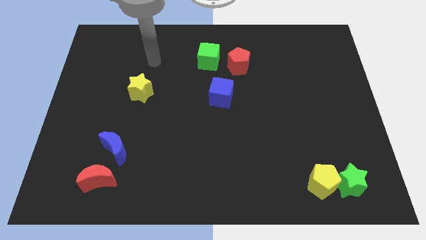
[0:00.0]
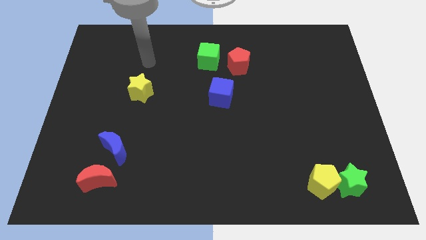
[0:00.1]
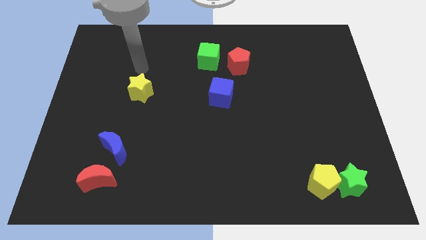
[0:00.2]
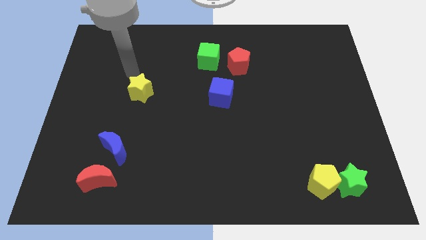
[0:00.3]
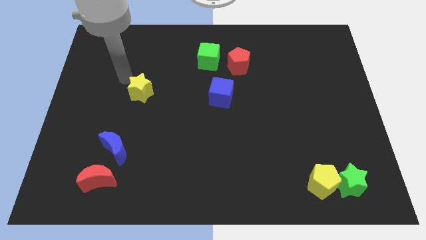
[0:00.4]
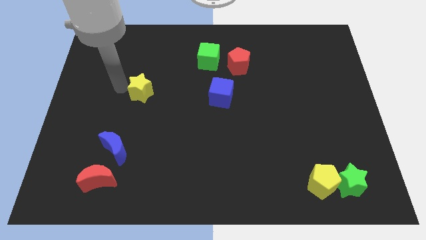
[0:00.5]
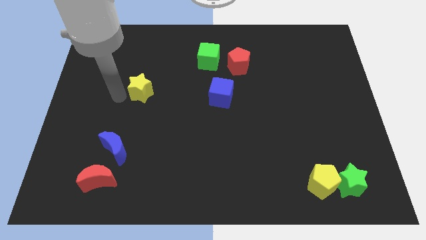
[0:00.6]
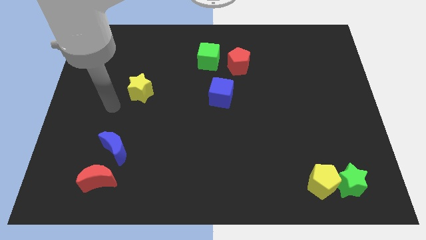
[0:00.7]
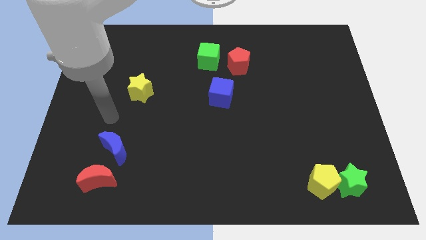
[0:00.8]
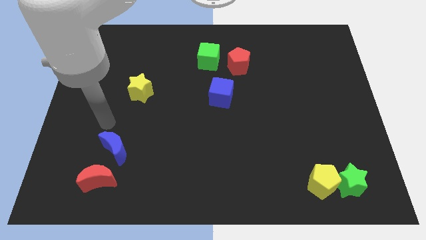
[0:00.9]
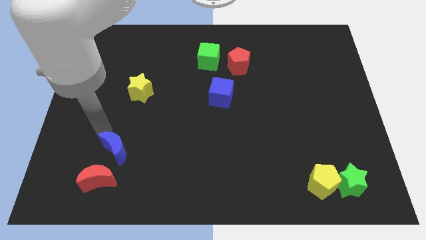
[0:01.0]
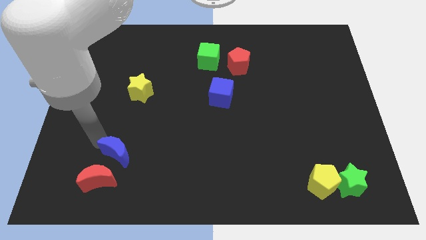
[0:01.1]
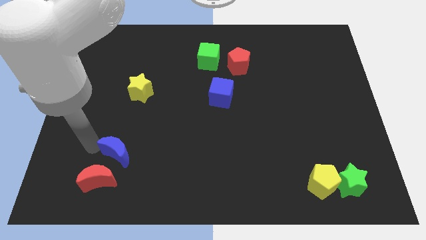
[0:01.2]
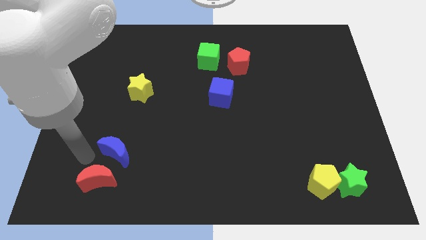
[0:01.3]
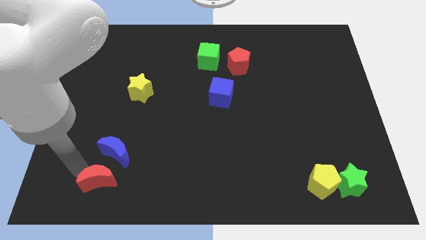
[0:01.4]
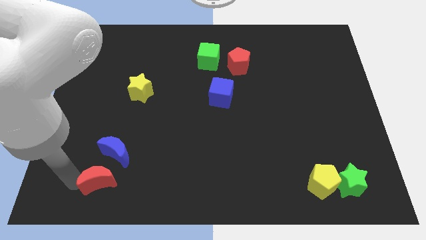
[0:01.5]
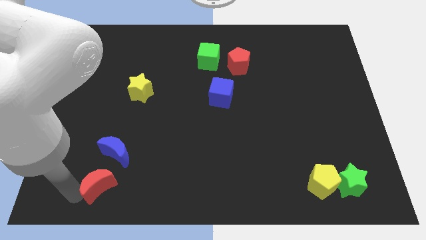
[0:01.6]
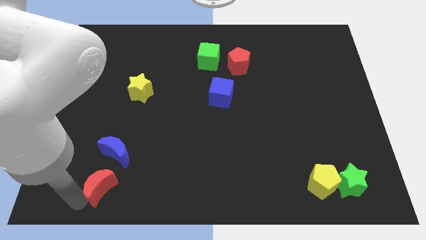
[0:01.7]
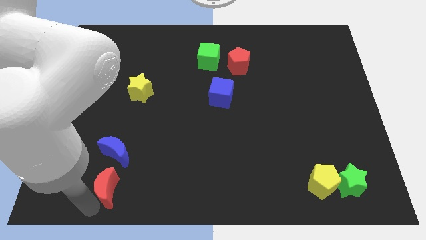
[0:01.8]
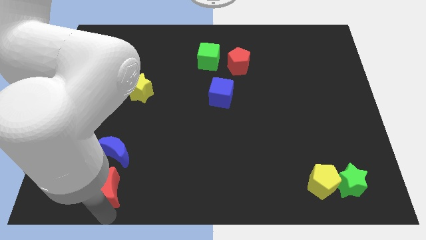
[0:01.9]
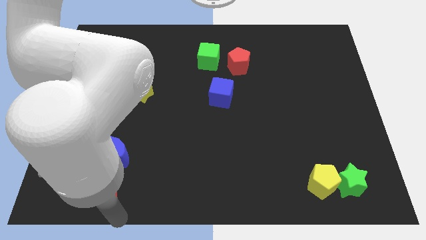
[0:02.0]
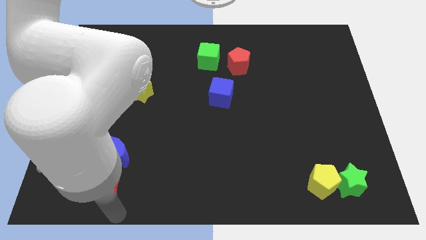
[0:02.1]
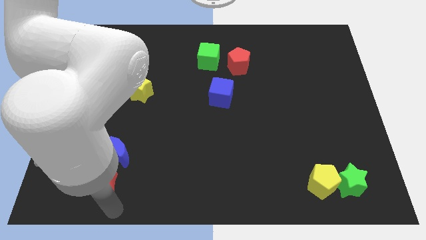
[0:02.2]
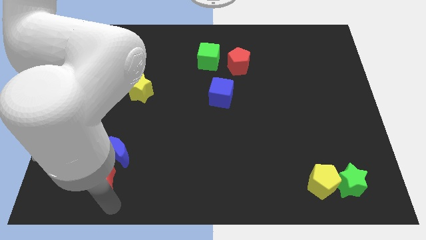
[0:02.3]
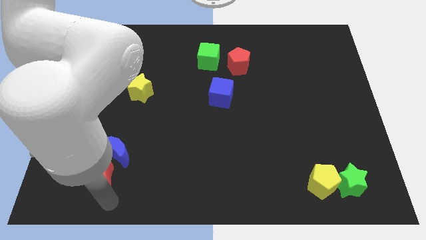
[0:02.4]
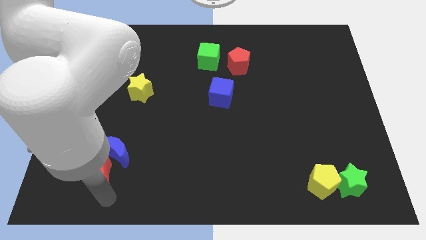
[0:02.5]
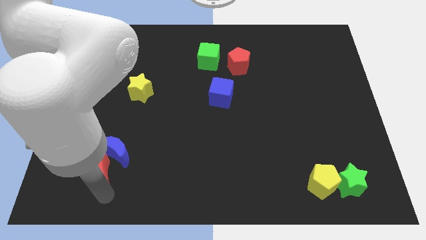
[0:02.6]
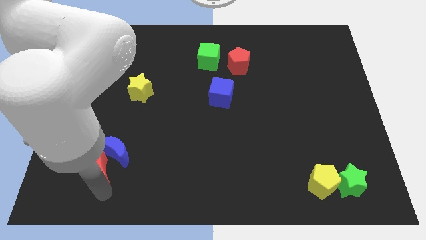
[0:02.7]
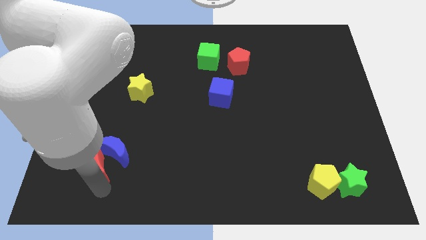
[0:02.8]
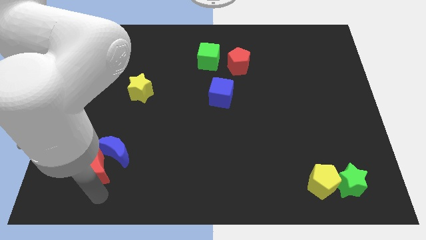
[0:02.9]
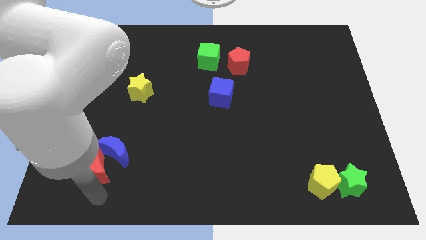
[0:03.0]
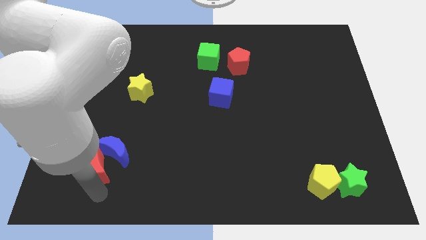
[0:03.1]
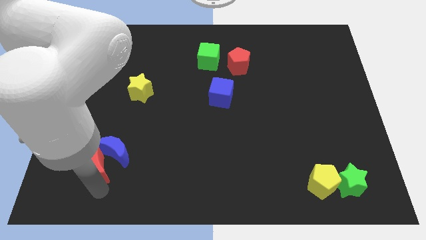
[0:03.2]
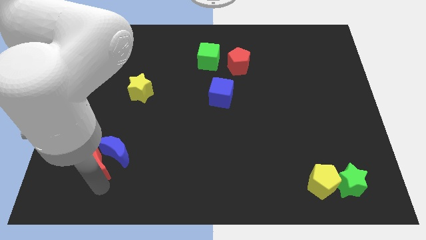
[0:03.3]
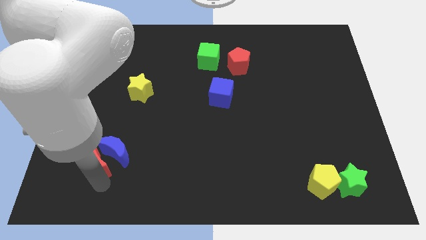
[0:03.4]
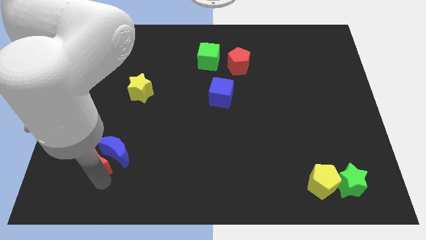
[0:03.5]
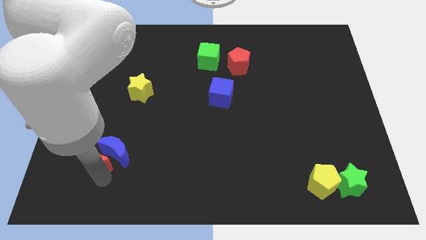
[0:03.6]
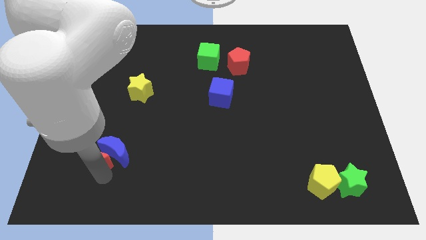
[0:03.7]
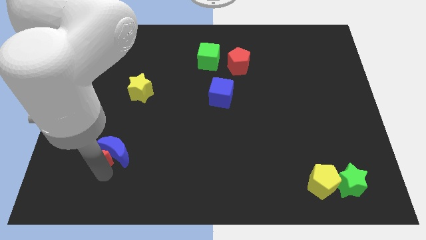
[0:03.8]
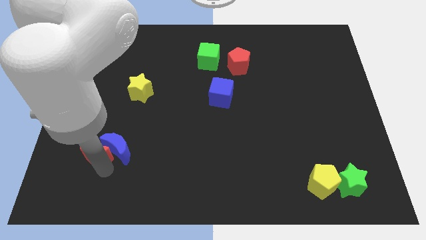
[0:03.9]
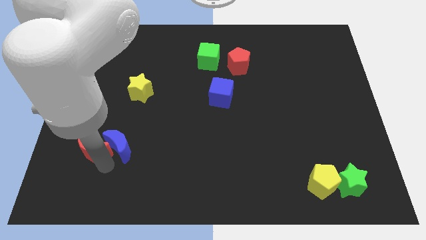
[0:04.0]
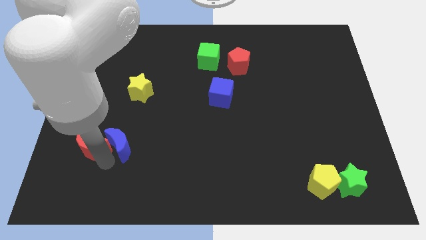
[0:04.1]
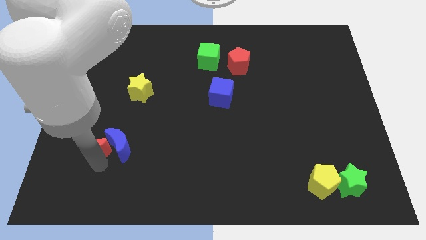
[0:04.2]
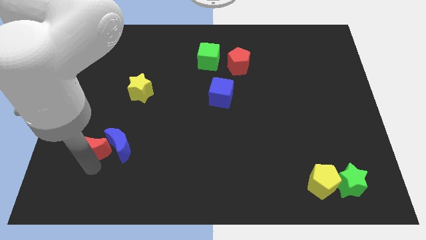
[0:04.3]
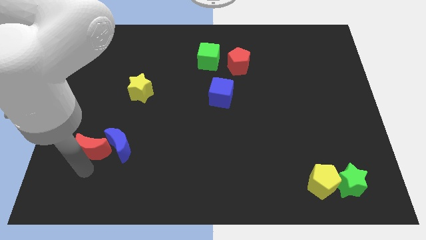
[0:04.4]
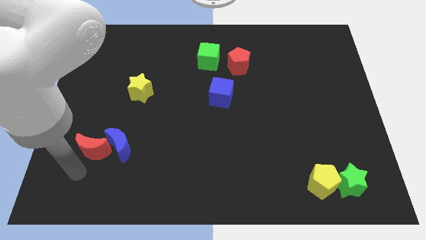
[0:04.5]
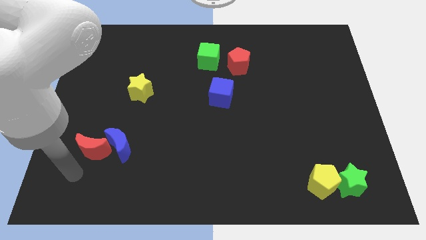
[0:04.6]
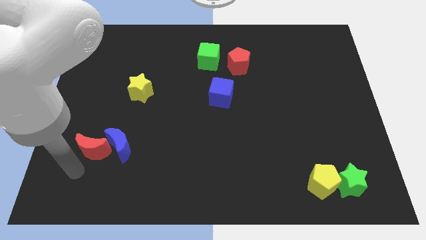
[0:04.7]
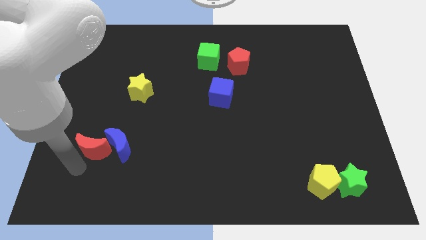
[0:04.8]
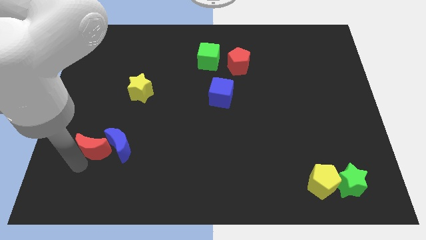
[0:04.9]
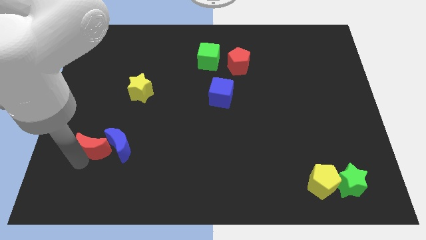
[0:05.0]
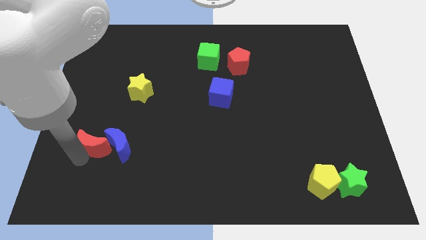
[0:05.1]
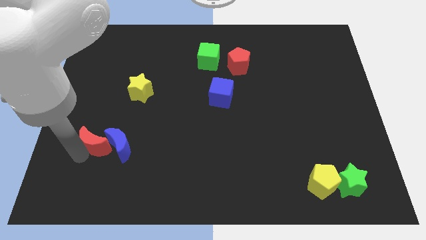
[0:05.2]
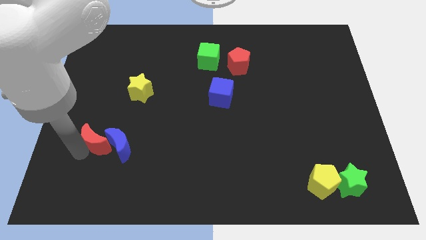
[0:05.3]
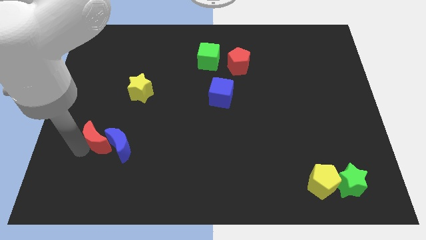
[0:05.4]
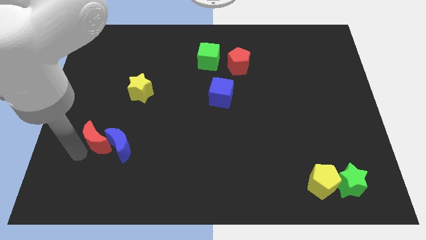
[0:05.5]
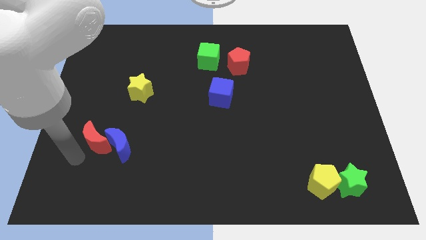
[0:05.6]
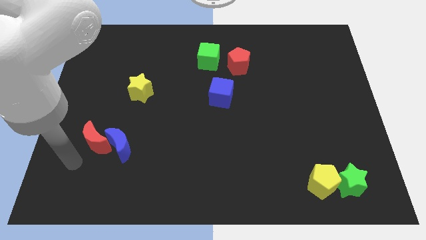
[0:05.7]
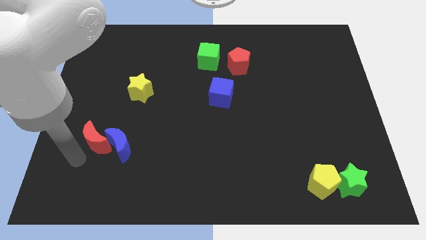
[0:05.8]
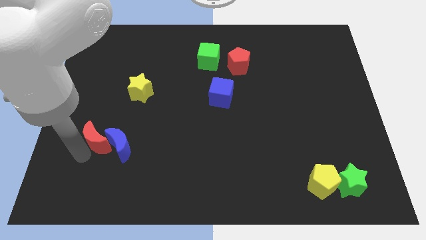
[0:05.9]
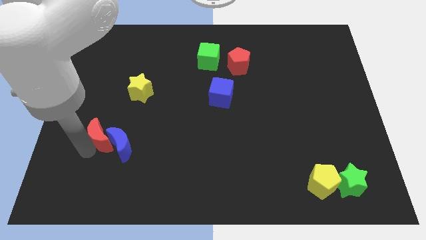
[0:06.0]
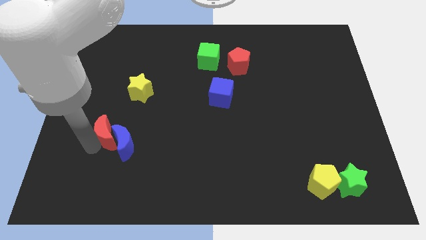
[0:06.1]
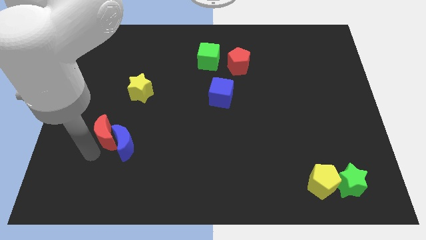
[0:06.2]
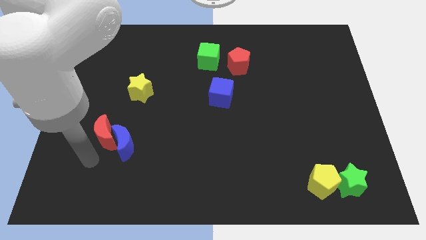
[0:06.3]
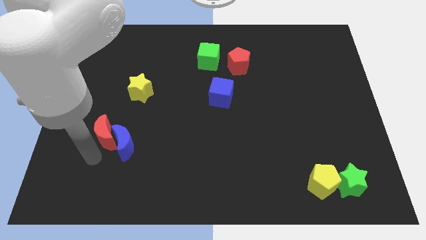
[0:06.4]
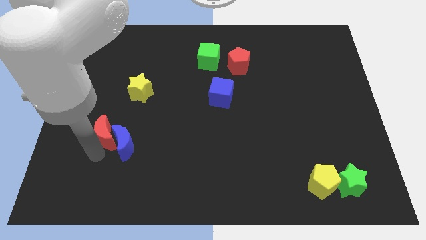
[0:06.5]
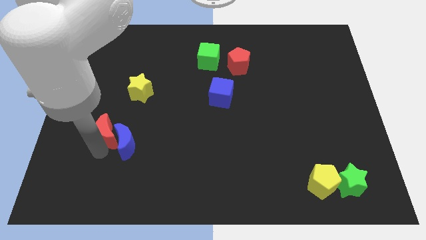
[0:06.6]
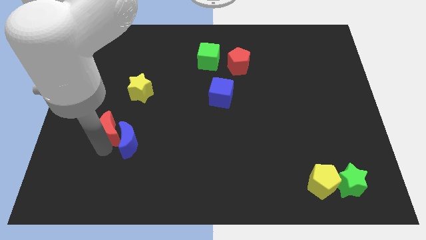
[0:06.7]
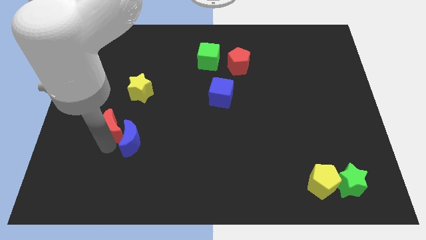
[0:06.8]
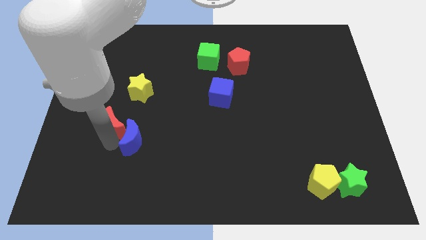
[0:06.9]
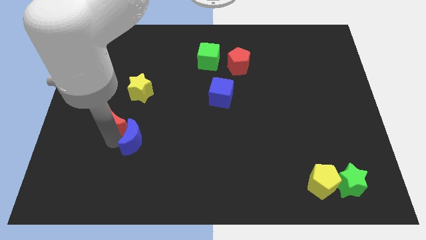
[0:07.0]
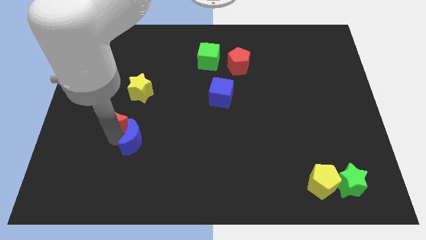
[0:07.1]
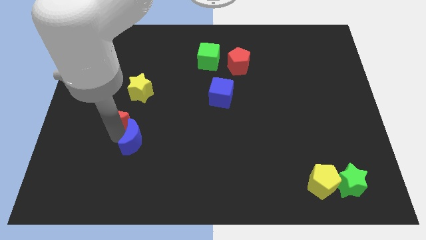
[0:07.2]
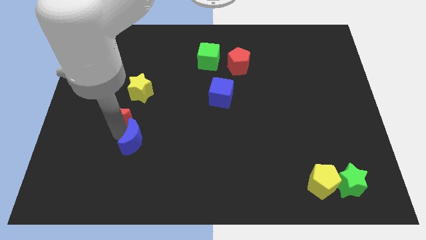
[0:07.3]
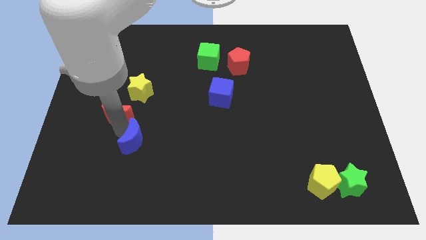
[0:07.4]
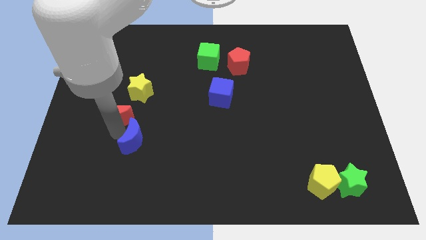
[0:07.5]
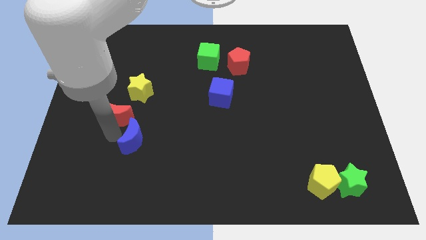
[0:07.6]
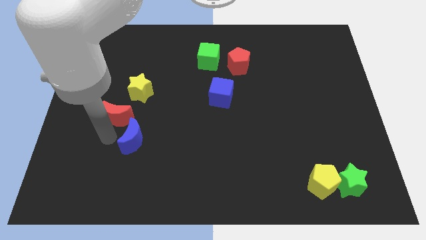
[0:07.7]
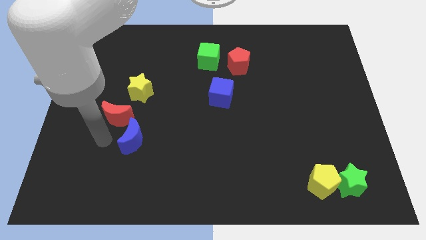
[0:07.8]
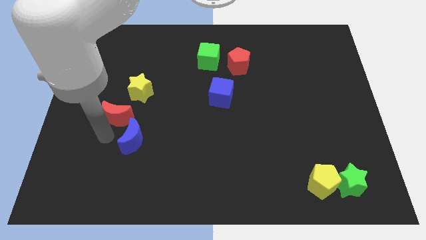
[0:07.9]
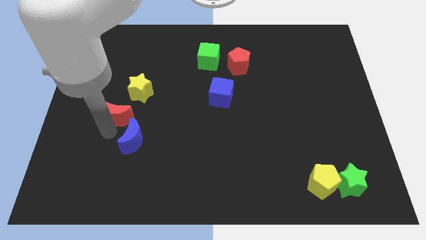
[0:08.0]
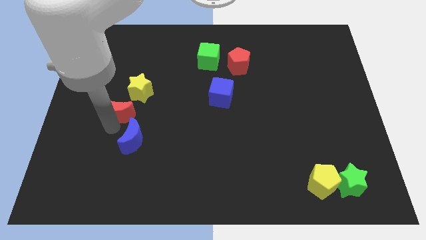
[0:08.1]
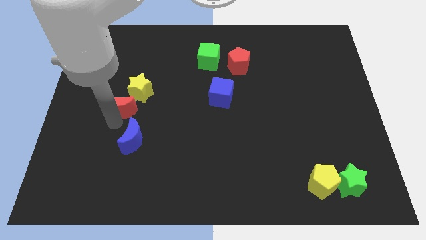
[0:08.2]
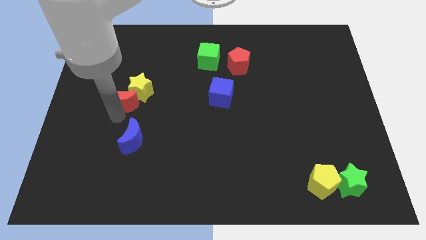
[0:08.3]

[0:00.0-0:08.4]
push the red moon towards the yellow star
